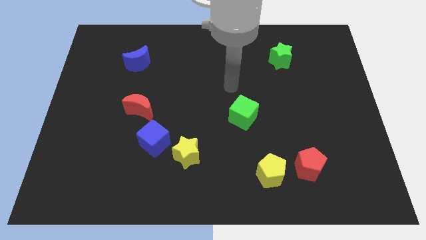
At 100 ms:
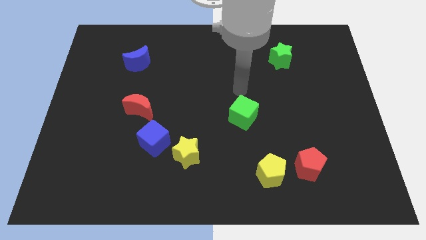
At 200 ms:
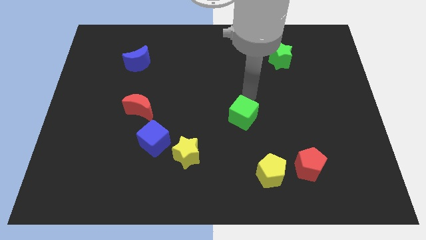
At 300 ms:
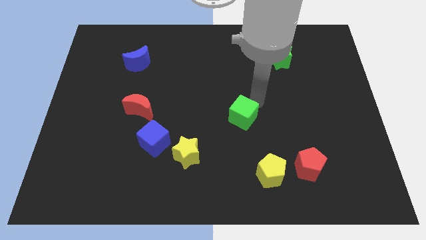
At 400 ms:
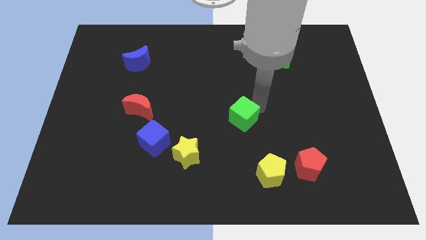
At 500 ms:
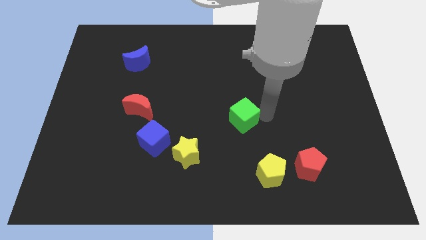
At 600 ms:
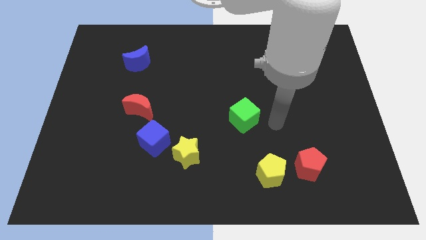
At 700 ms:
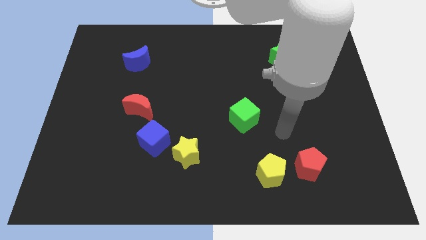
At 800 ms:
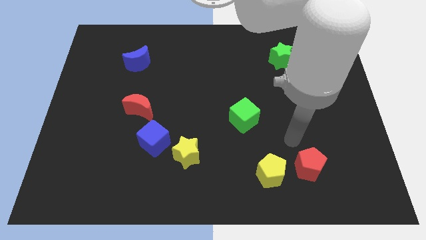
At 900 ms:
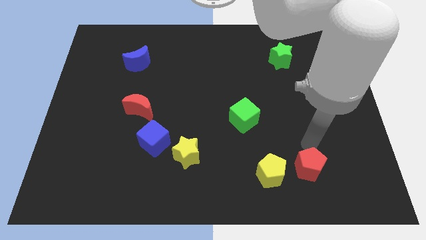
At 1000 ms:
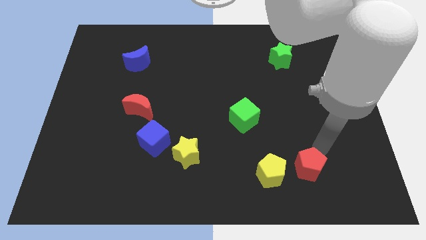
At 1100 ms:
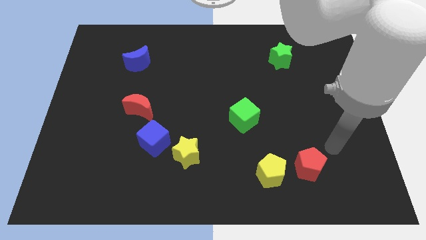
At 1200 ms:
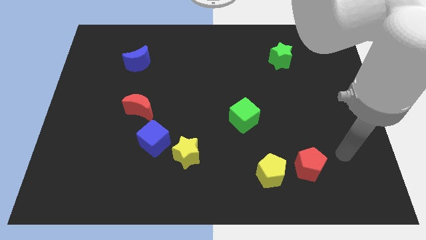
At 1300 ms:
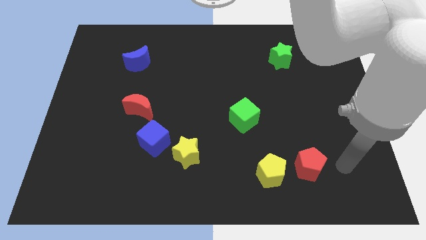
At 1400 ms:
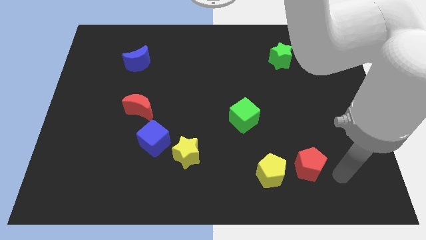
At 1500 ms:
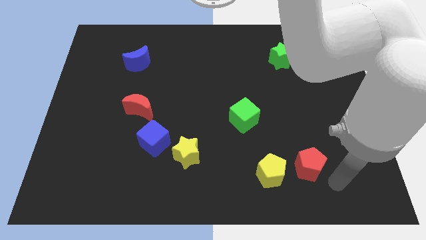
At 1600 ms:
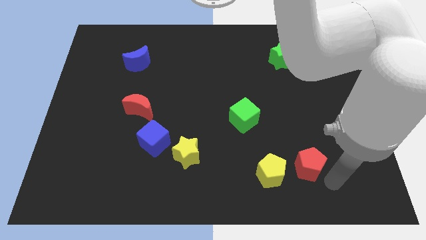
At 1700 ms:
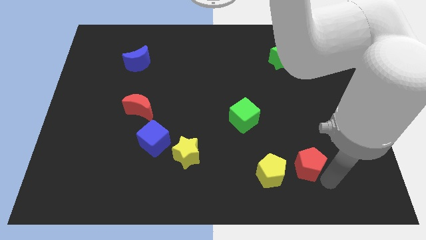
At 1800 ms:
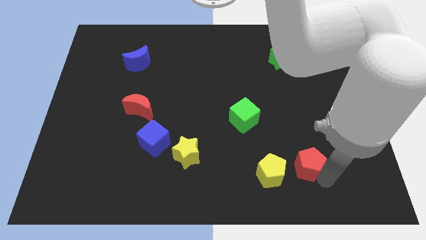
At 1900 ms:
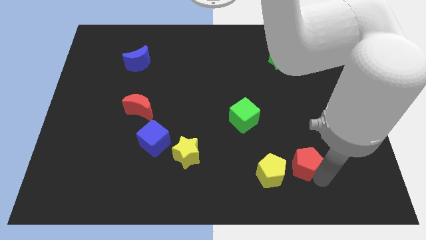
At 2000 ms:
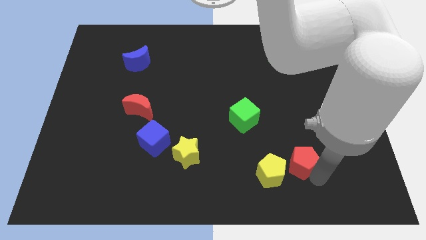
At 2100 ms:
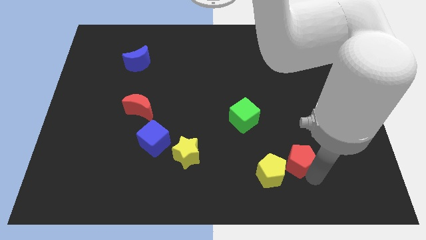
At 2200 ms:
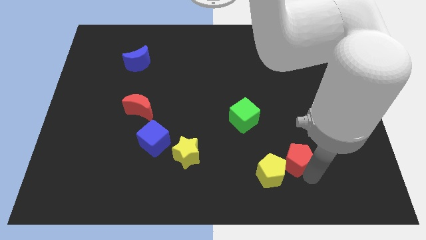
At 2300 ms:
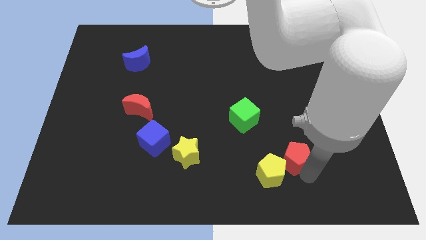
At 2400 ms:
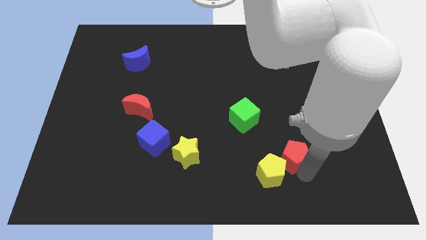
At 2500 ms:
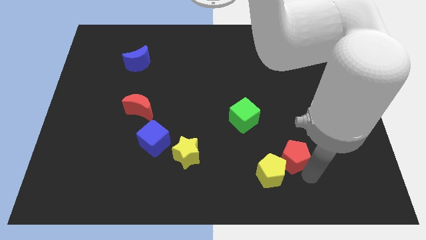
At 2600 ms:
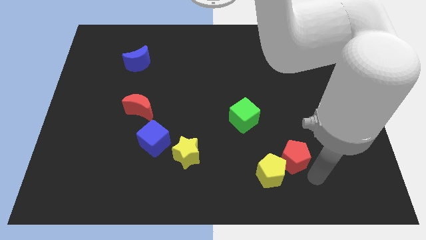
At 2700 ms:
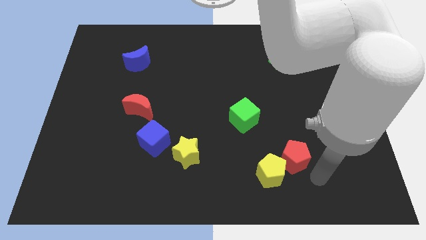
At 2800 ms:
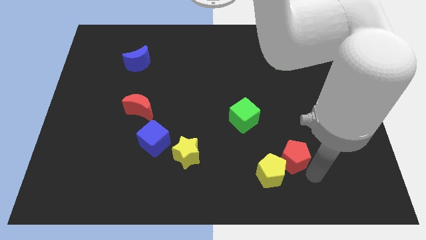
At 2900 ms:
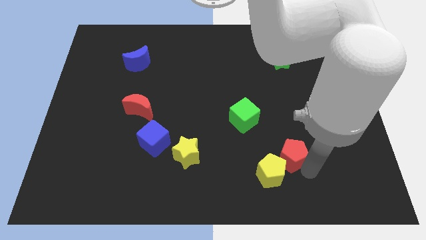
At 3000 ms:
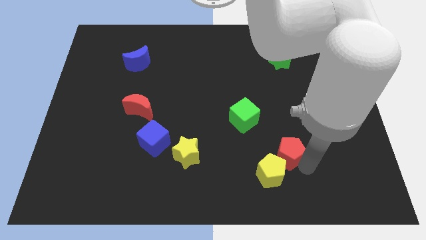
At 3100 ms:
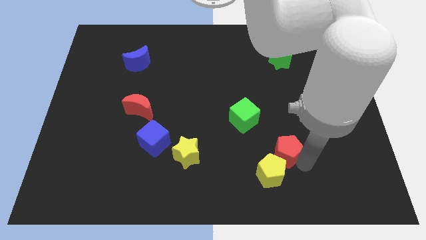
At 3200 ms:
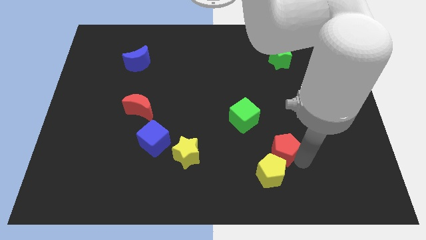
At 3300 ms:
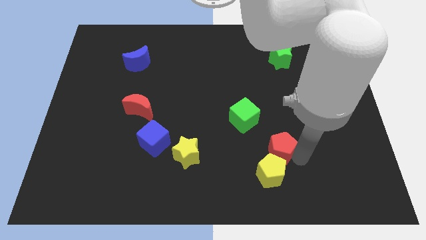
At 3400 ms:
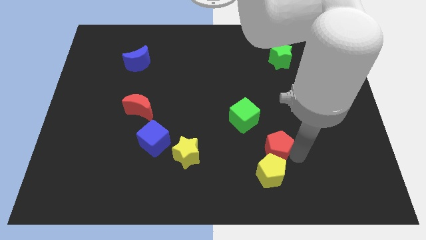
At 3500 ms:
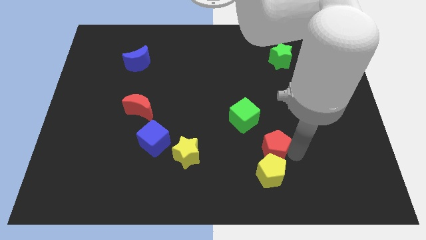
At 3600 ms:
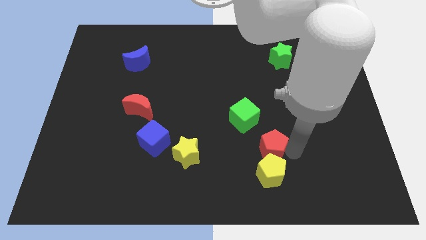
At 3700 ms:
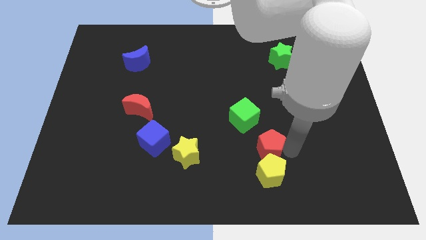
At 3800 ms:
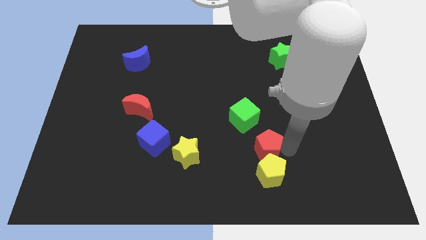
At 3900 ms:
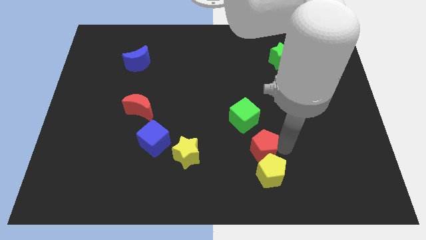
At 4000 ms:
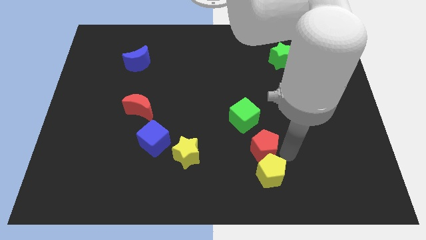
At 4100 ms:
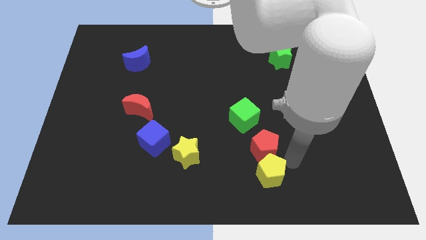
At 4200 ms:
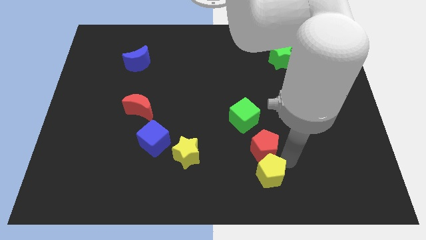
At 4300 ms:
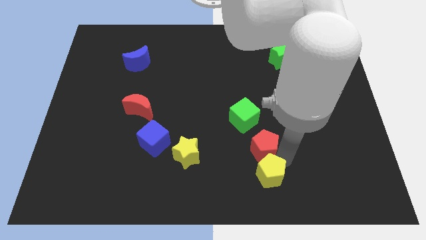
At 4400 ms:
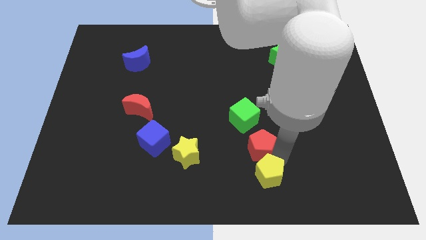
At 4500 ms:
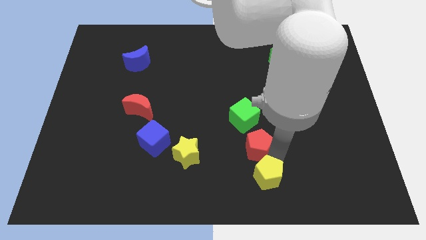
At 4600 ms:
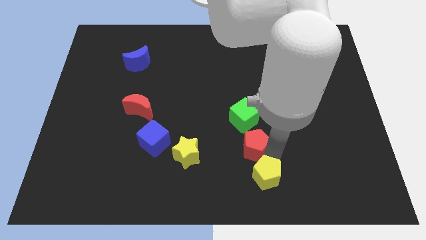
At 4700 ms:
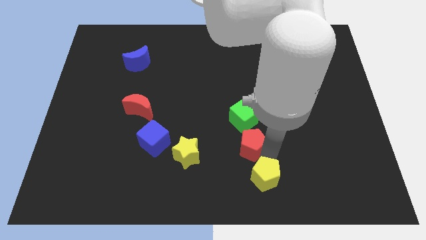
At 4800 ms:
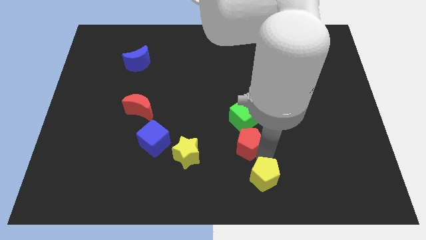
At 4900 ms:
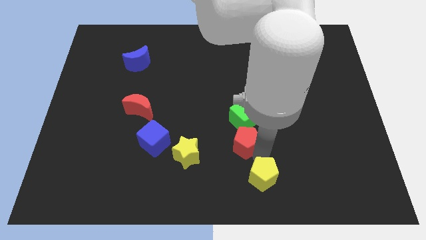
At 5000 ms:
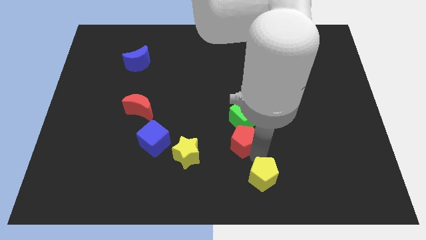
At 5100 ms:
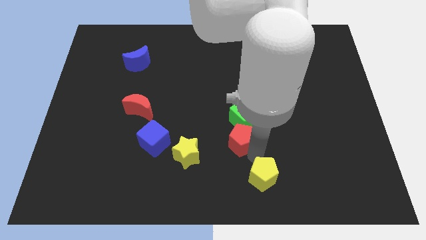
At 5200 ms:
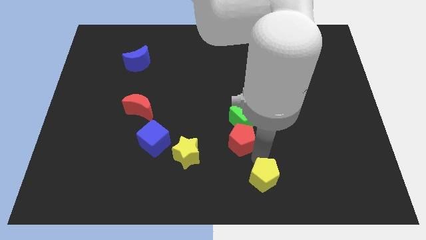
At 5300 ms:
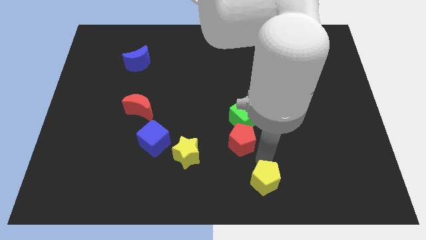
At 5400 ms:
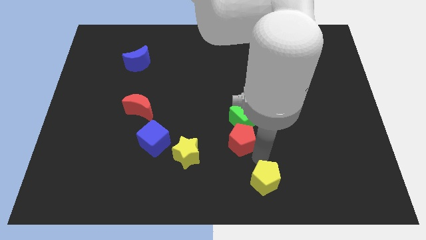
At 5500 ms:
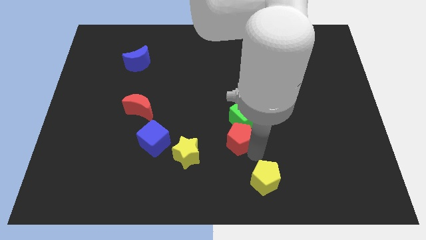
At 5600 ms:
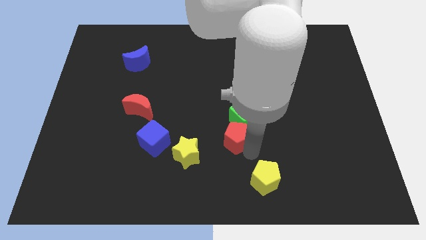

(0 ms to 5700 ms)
put the red pentagon to the center

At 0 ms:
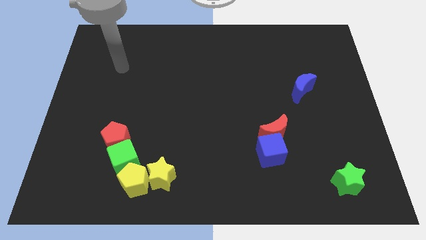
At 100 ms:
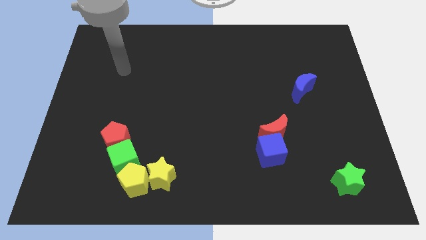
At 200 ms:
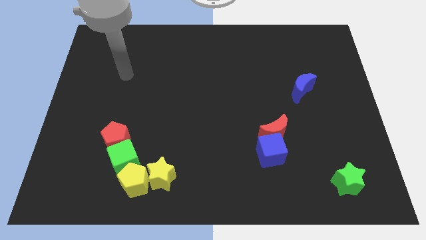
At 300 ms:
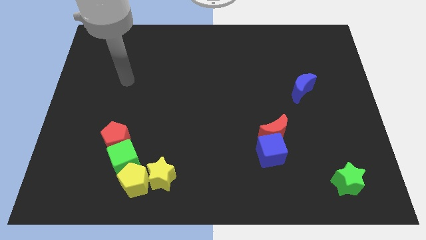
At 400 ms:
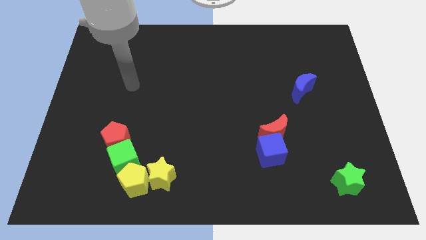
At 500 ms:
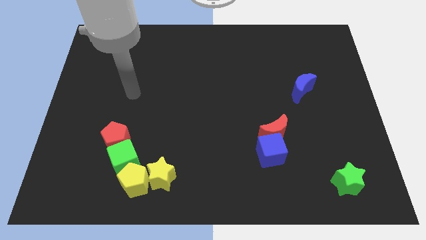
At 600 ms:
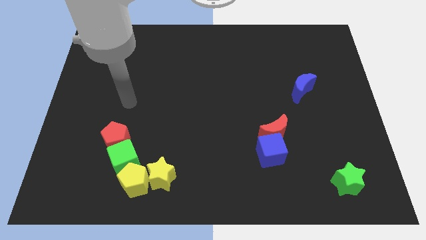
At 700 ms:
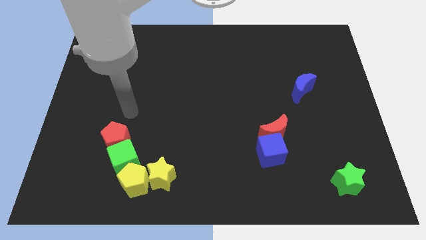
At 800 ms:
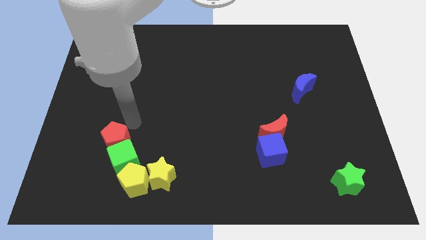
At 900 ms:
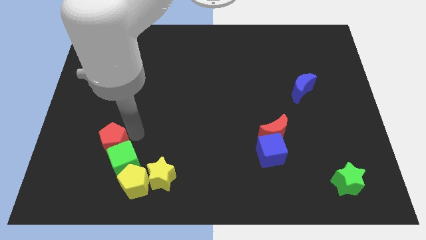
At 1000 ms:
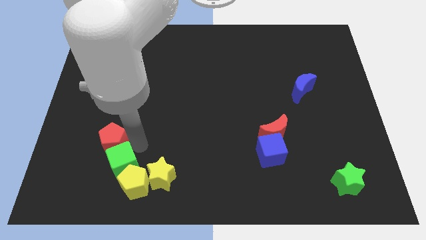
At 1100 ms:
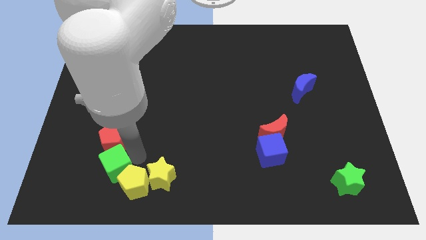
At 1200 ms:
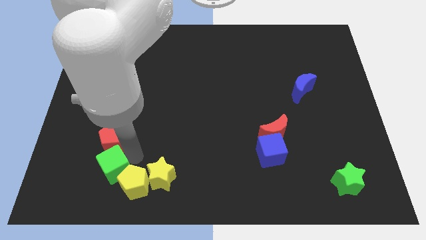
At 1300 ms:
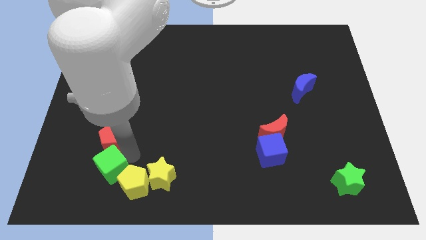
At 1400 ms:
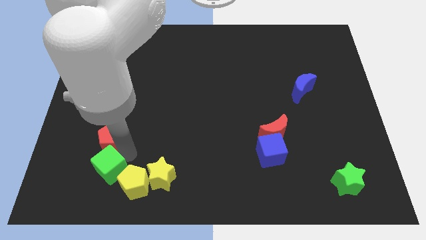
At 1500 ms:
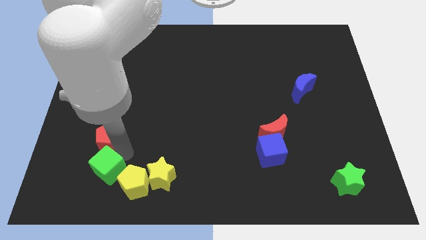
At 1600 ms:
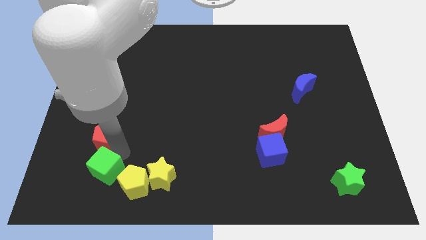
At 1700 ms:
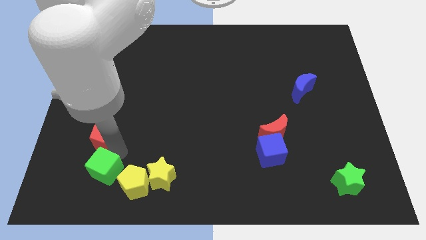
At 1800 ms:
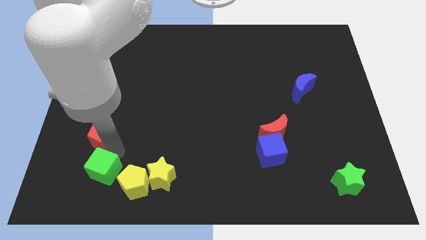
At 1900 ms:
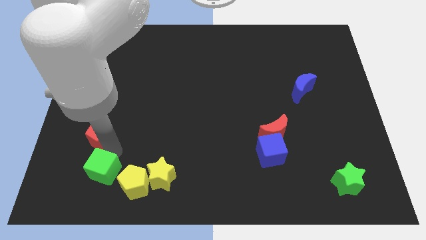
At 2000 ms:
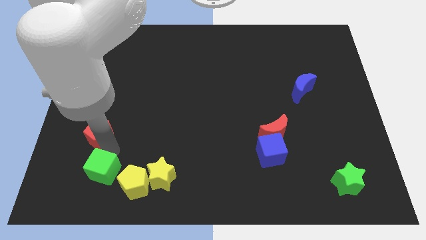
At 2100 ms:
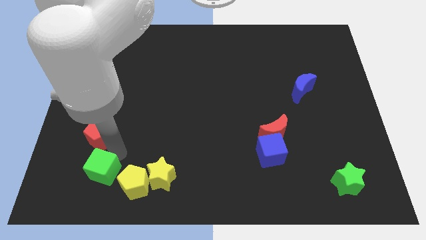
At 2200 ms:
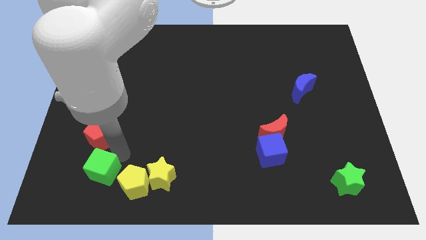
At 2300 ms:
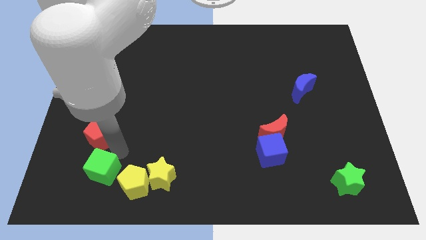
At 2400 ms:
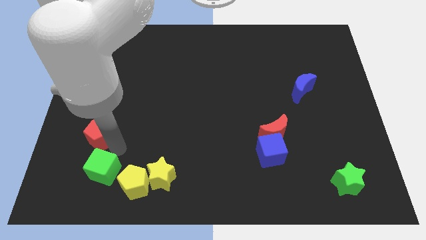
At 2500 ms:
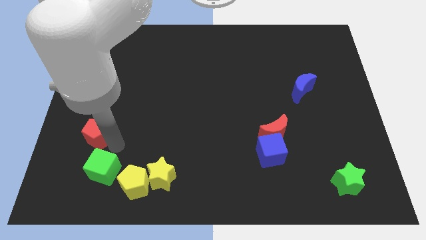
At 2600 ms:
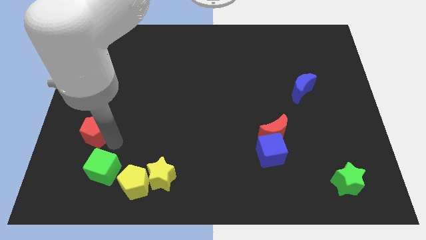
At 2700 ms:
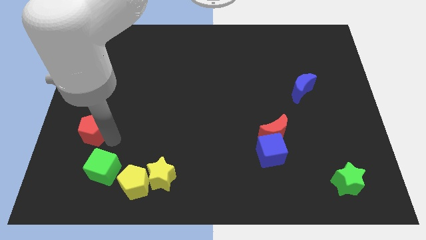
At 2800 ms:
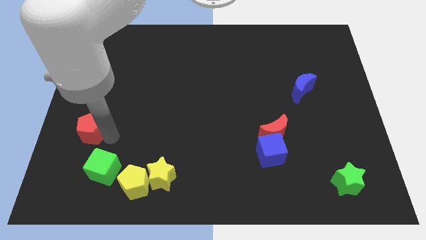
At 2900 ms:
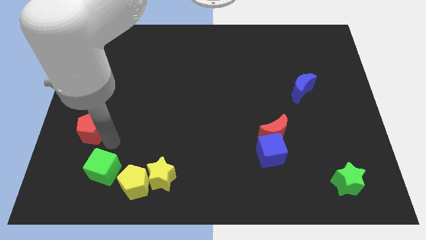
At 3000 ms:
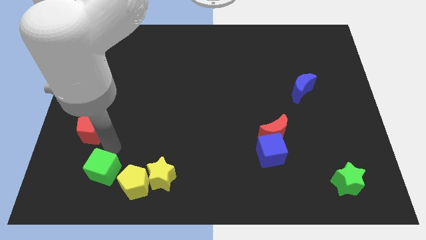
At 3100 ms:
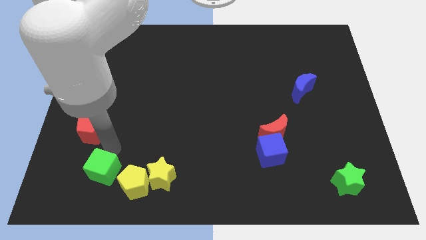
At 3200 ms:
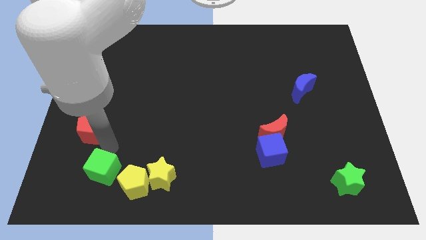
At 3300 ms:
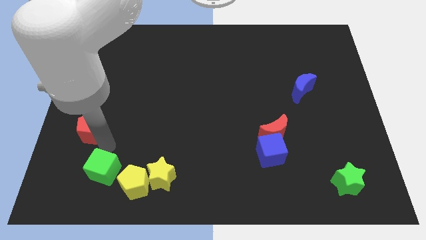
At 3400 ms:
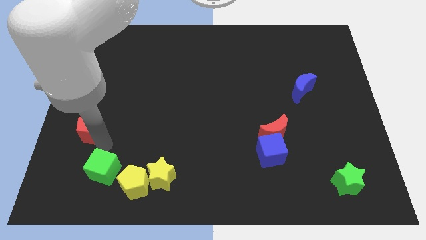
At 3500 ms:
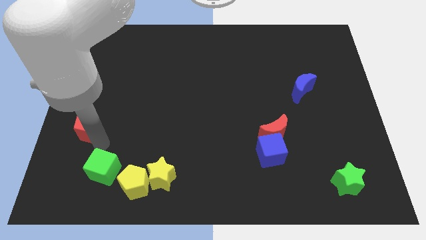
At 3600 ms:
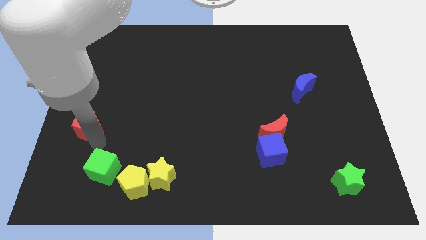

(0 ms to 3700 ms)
slide the red pentagon to the center left
